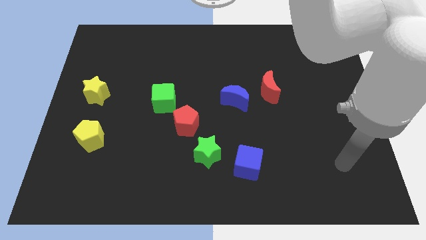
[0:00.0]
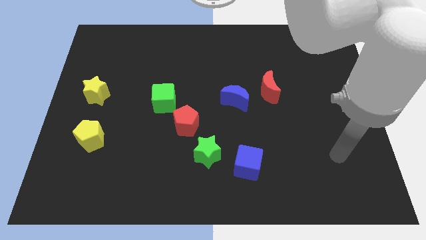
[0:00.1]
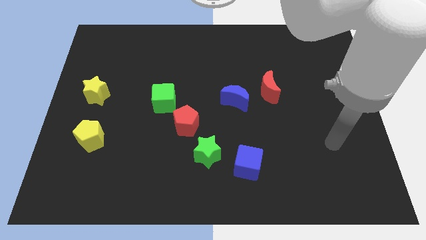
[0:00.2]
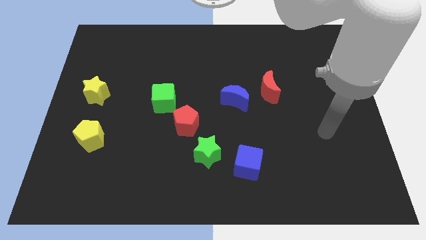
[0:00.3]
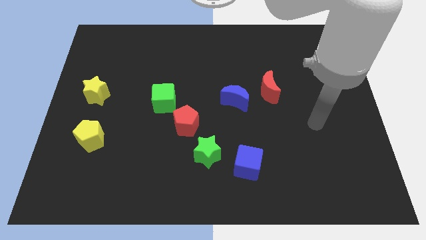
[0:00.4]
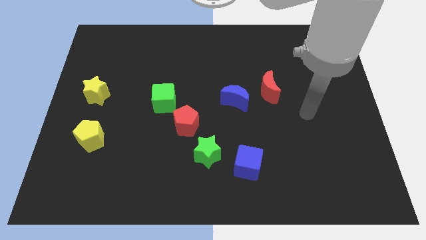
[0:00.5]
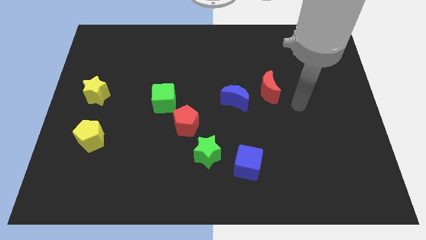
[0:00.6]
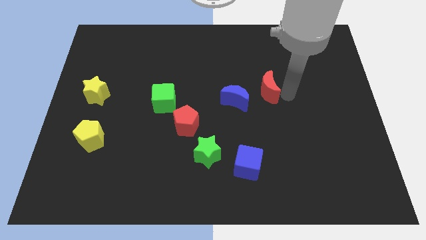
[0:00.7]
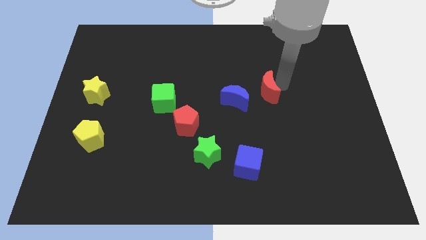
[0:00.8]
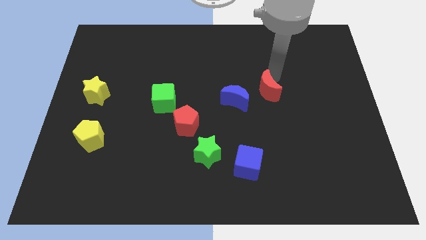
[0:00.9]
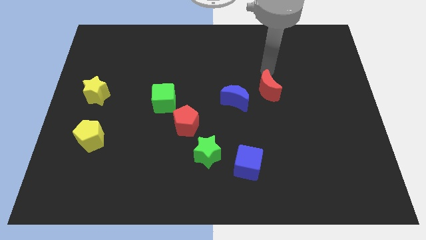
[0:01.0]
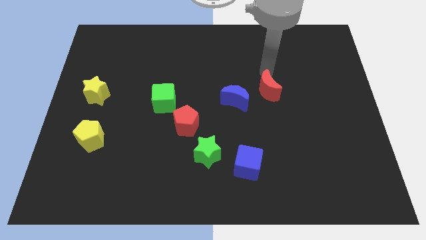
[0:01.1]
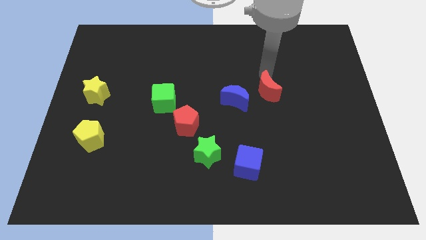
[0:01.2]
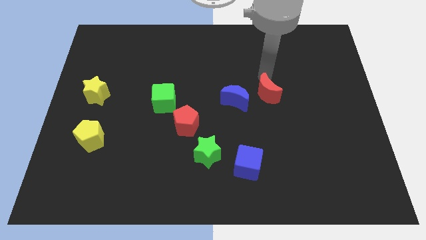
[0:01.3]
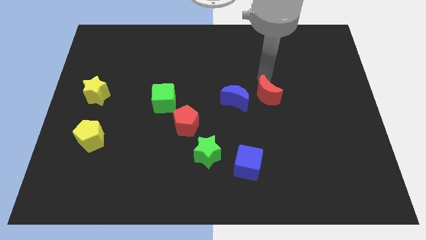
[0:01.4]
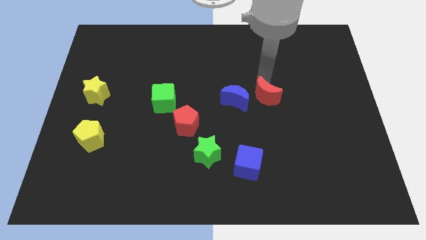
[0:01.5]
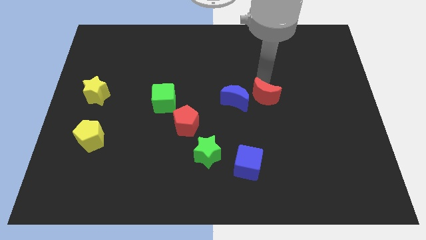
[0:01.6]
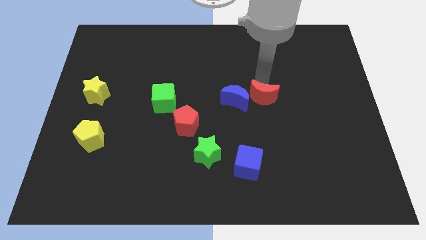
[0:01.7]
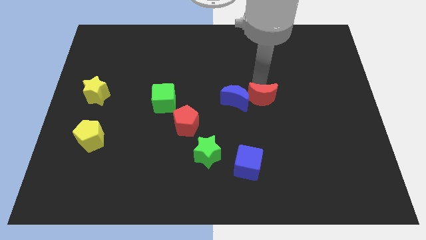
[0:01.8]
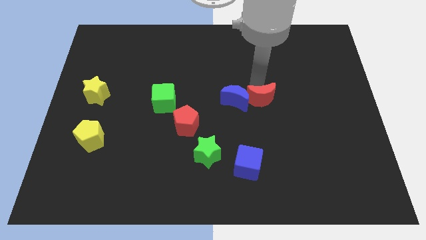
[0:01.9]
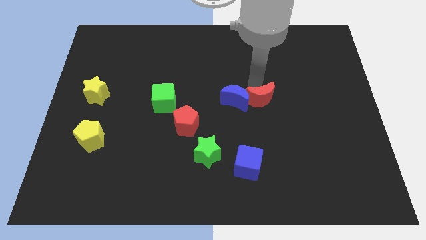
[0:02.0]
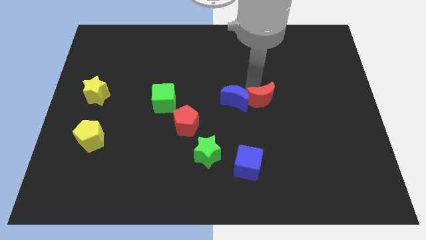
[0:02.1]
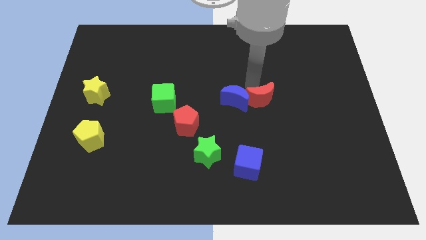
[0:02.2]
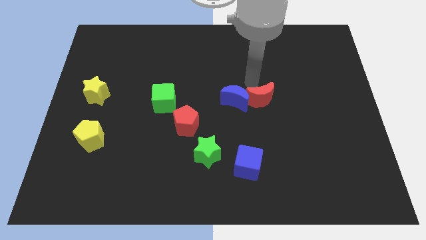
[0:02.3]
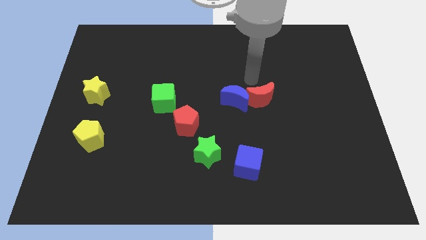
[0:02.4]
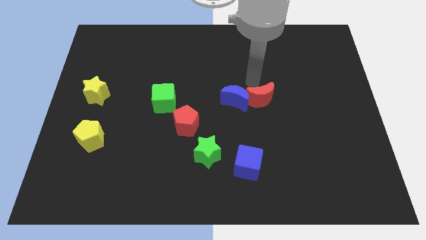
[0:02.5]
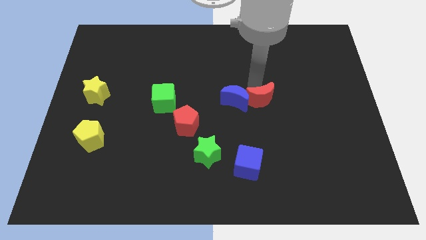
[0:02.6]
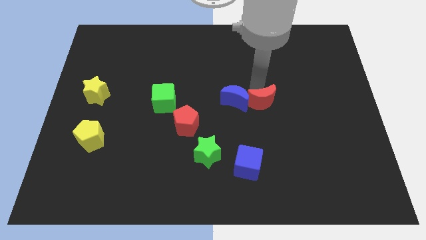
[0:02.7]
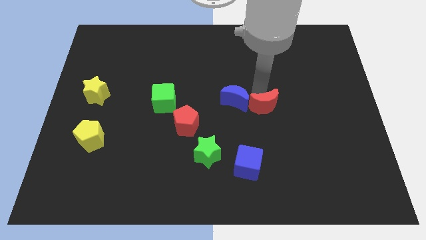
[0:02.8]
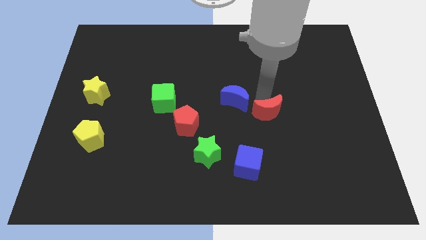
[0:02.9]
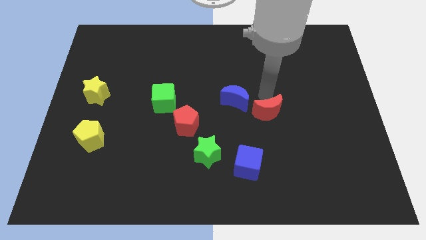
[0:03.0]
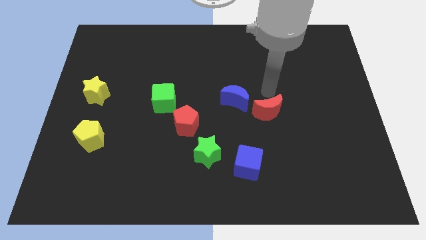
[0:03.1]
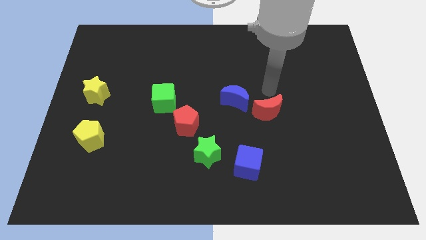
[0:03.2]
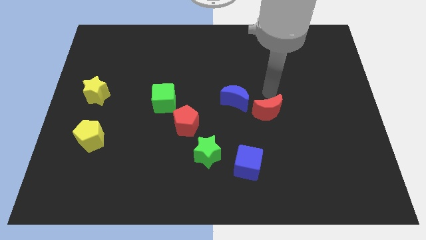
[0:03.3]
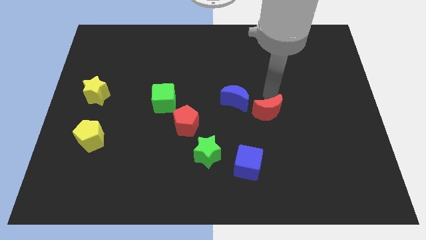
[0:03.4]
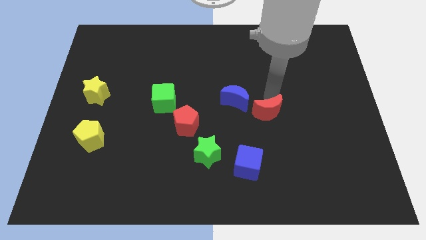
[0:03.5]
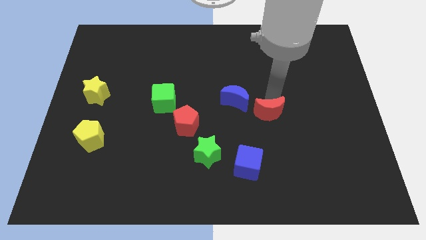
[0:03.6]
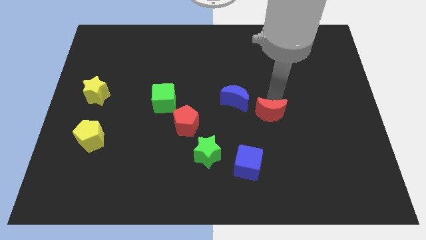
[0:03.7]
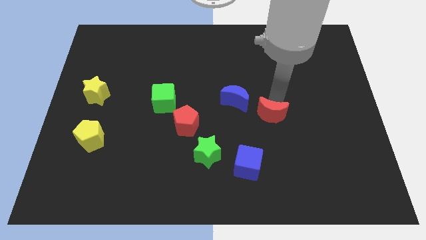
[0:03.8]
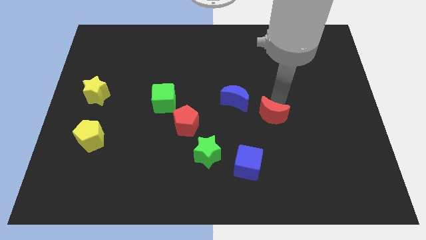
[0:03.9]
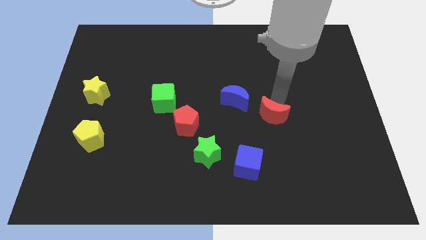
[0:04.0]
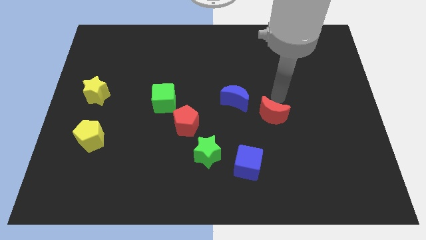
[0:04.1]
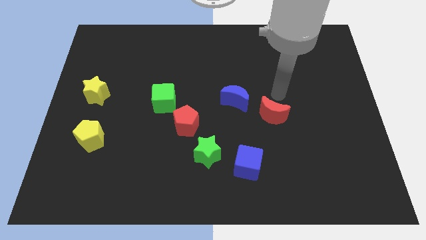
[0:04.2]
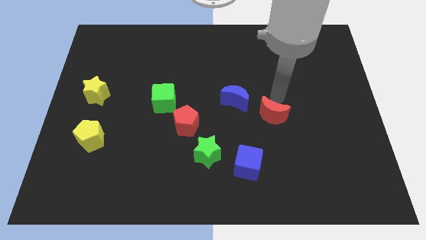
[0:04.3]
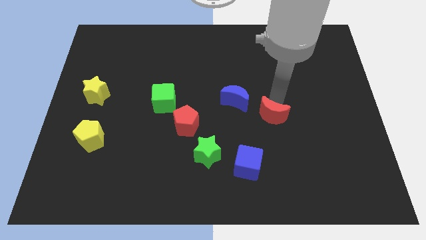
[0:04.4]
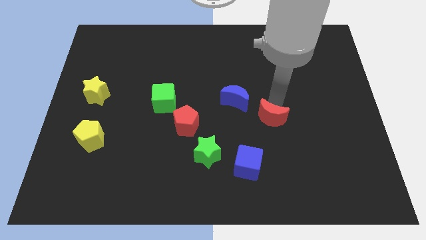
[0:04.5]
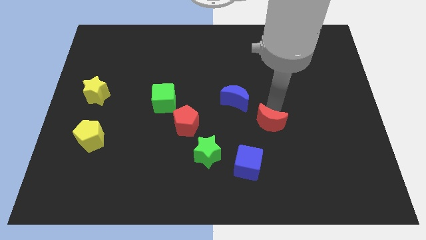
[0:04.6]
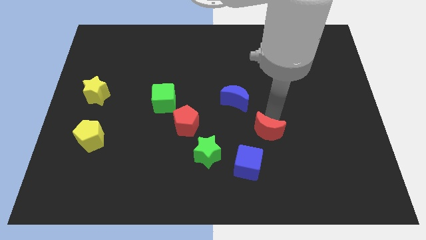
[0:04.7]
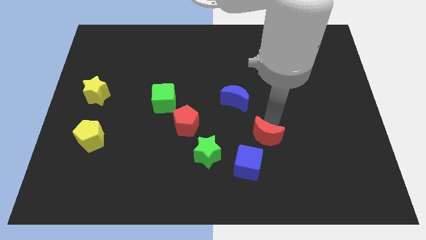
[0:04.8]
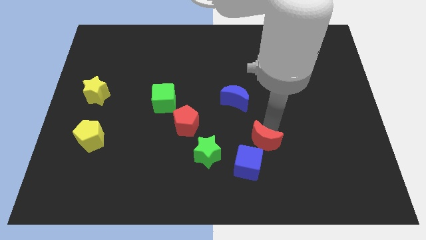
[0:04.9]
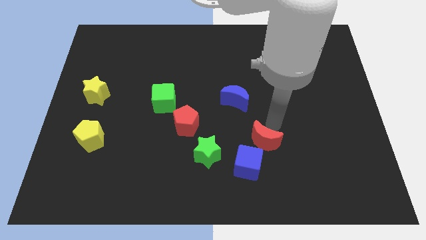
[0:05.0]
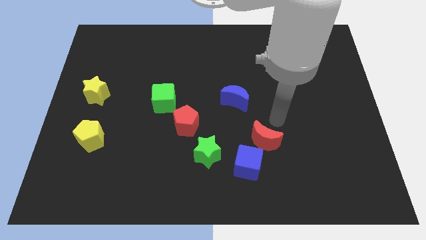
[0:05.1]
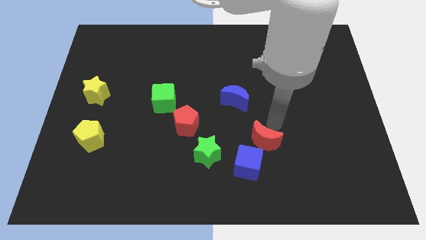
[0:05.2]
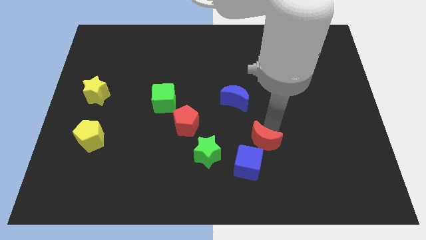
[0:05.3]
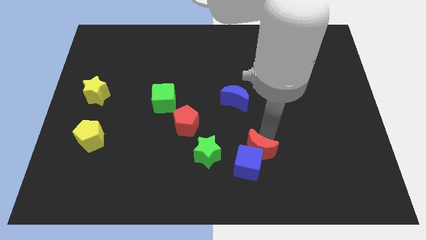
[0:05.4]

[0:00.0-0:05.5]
put the red moon towards the blue cube

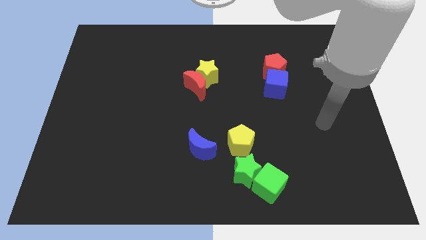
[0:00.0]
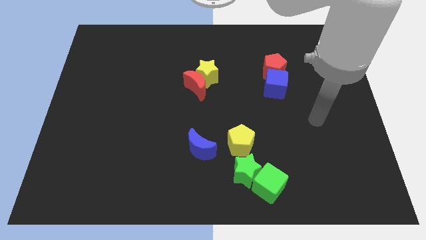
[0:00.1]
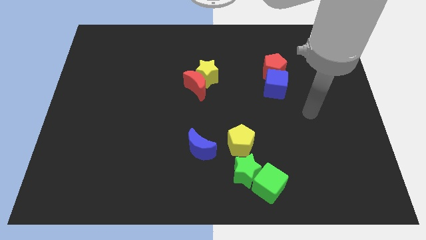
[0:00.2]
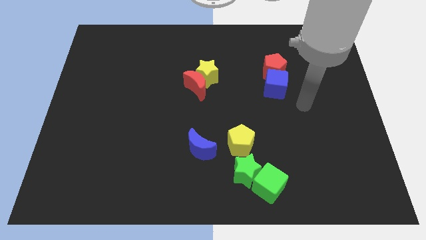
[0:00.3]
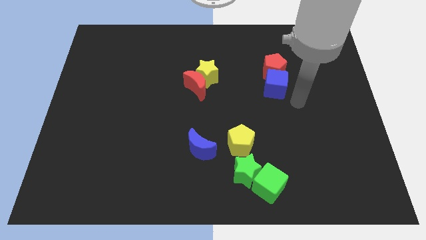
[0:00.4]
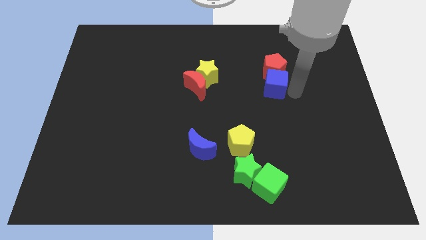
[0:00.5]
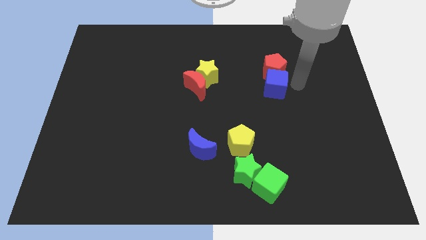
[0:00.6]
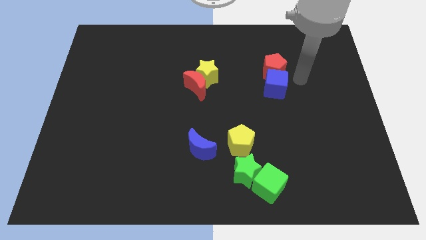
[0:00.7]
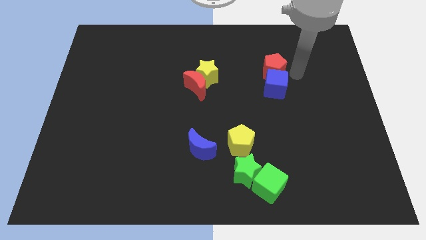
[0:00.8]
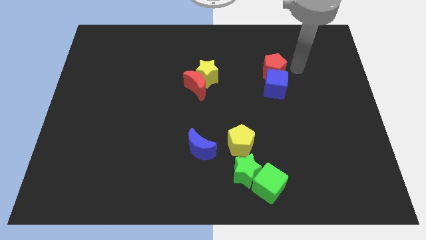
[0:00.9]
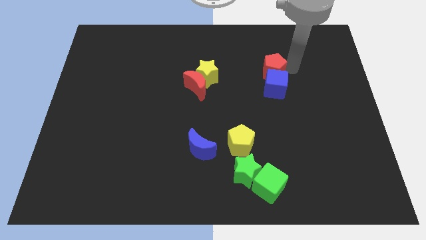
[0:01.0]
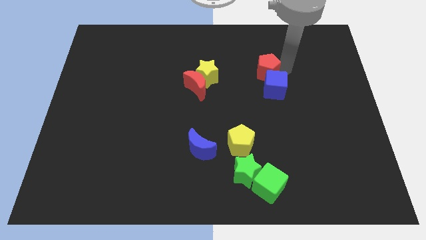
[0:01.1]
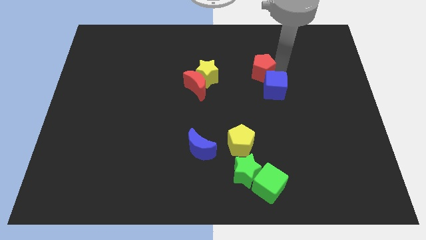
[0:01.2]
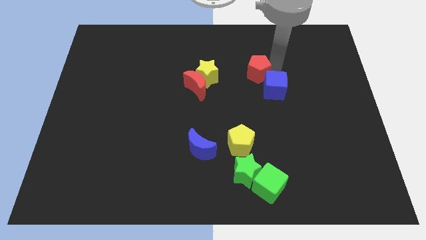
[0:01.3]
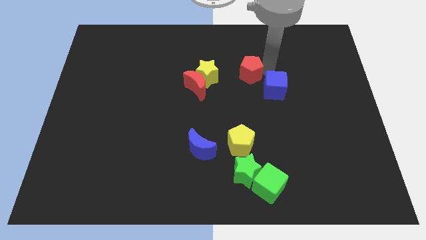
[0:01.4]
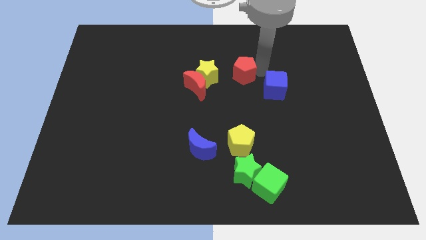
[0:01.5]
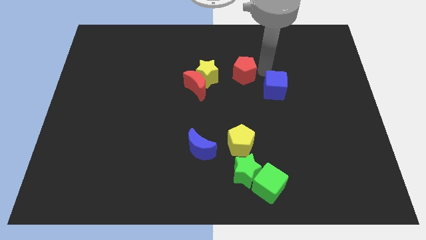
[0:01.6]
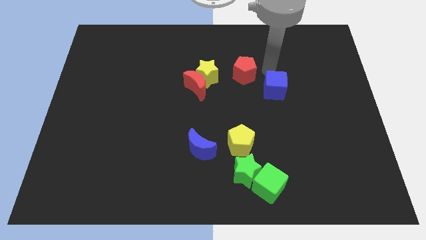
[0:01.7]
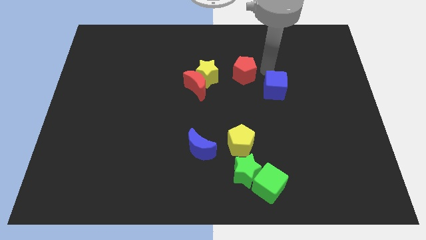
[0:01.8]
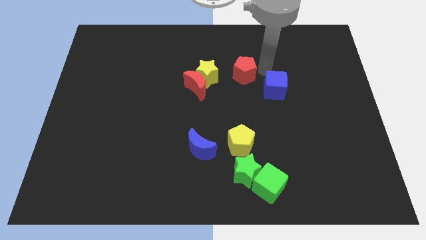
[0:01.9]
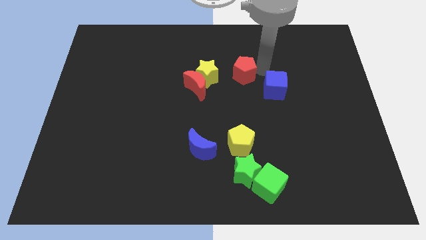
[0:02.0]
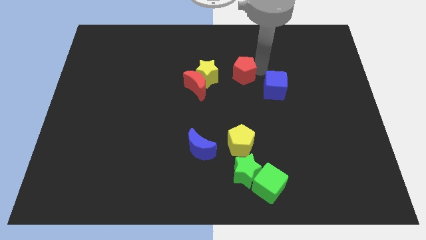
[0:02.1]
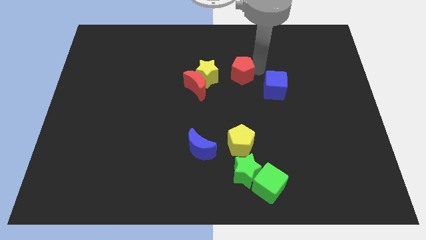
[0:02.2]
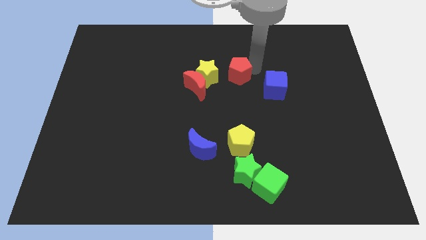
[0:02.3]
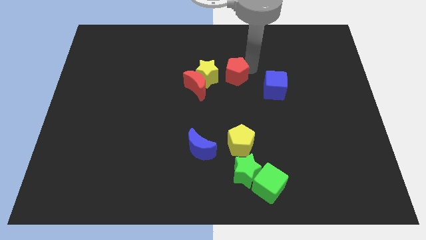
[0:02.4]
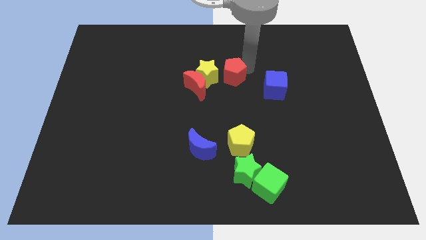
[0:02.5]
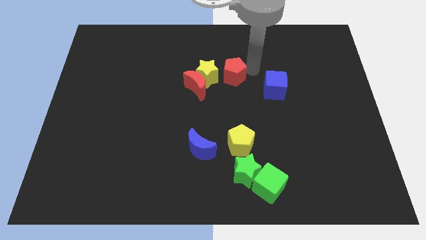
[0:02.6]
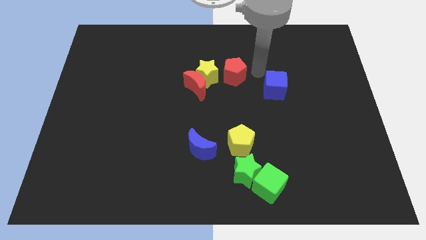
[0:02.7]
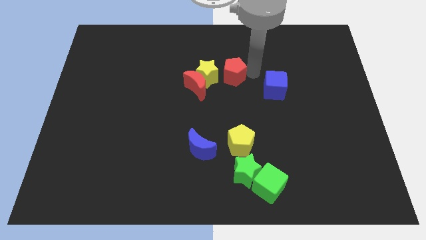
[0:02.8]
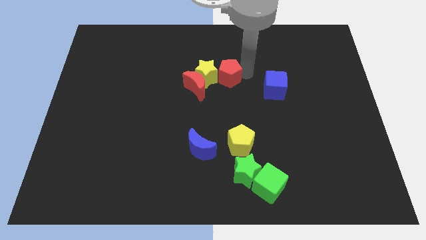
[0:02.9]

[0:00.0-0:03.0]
put the red pentagon close to the yellow star
